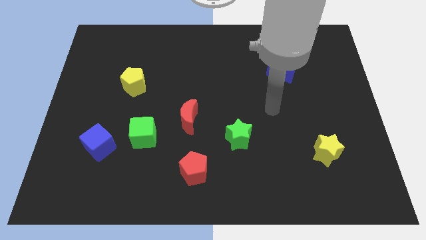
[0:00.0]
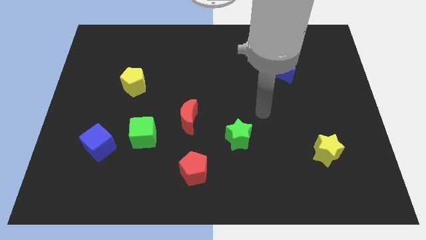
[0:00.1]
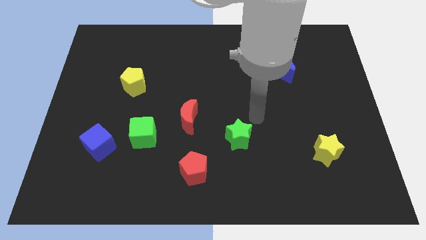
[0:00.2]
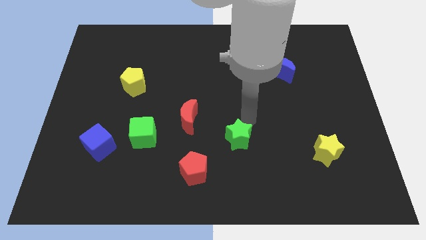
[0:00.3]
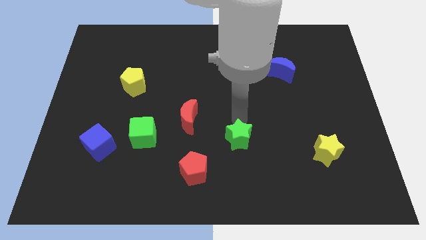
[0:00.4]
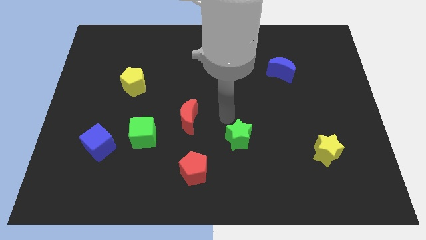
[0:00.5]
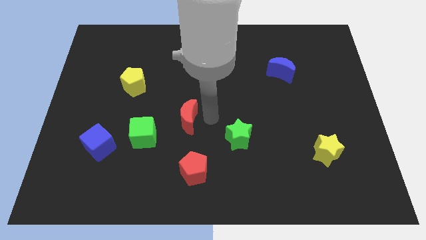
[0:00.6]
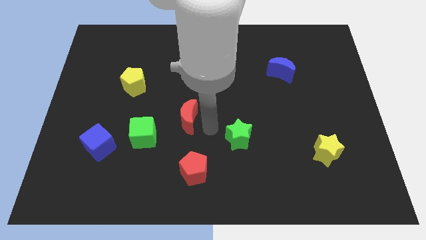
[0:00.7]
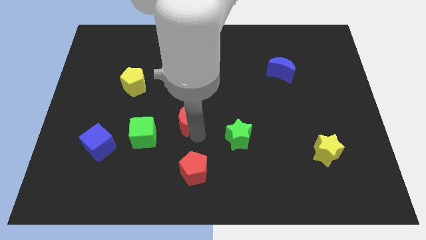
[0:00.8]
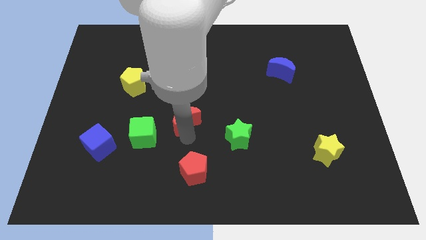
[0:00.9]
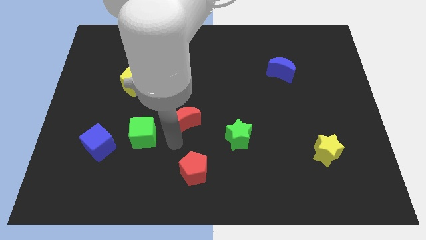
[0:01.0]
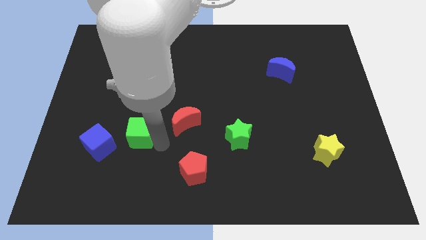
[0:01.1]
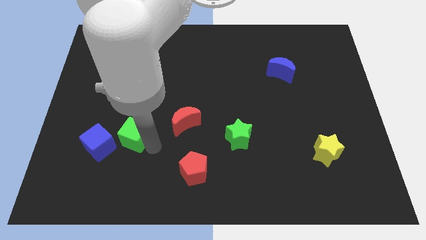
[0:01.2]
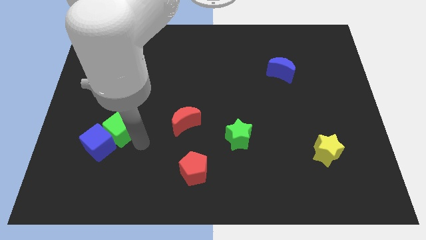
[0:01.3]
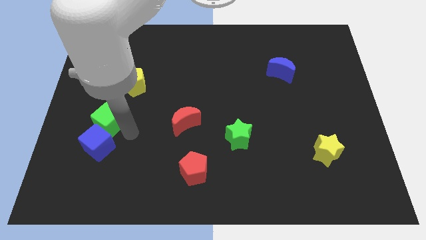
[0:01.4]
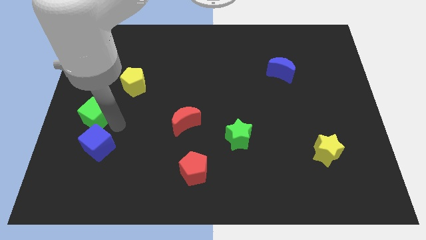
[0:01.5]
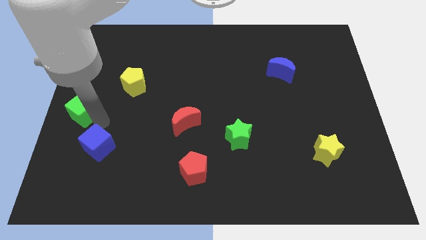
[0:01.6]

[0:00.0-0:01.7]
separate the blue cube from the green cube

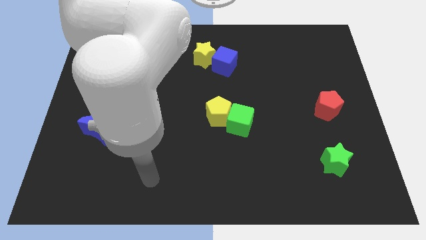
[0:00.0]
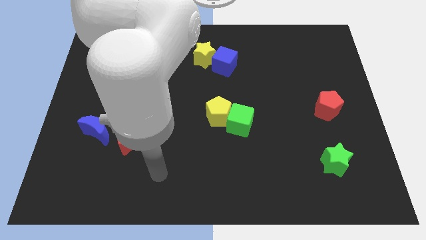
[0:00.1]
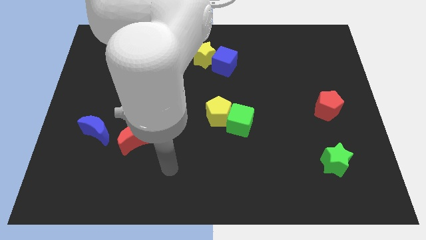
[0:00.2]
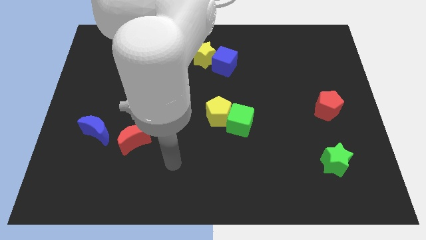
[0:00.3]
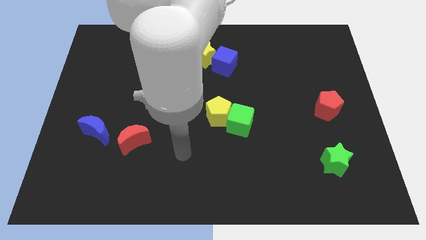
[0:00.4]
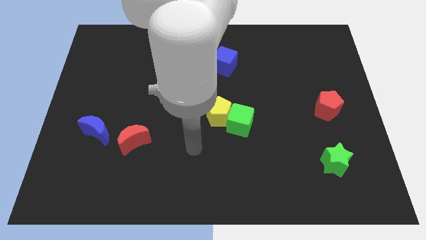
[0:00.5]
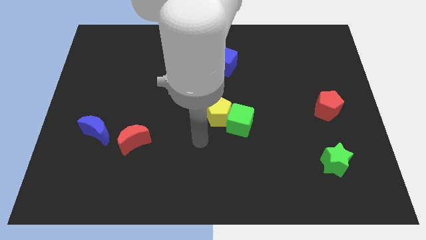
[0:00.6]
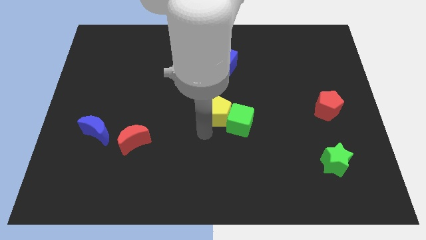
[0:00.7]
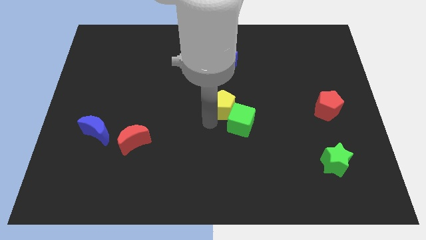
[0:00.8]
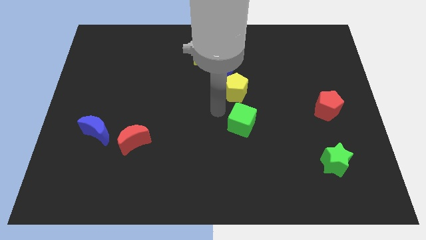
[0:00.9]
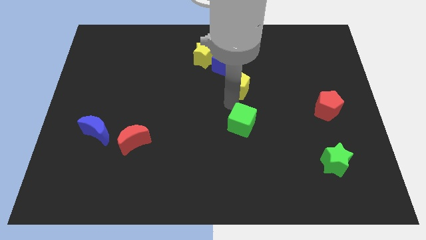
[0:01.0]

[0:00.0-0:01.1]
separate the green cube from the yellow pentagon

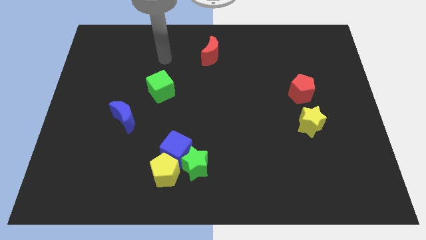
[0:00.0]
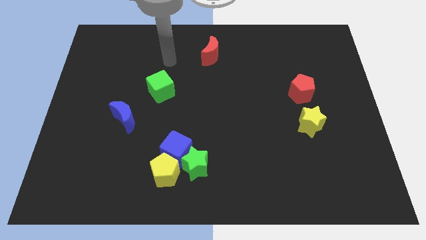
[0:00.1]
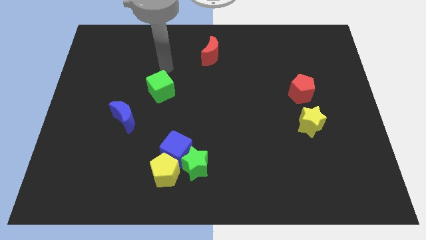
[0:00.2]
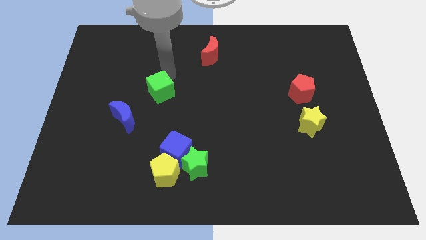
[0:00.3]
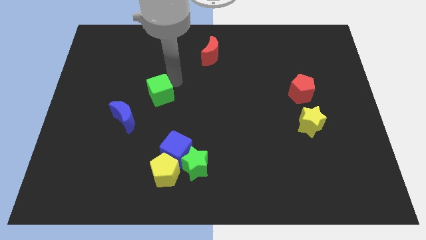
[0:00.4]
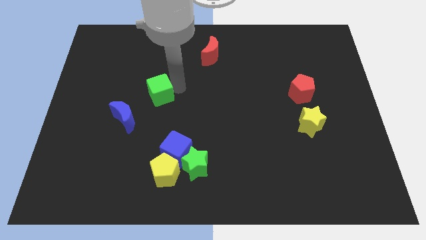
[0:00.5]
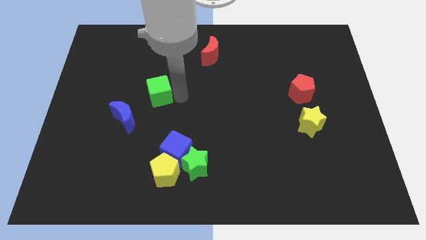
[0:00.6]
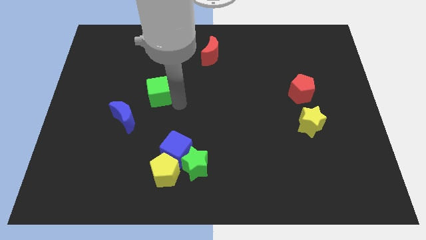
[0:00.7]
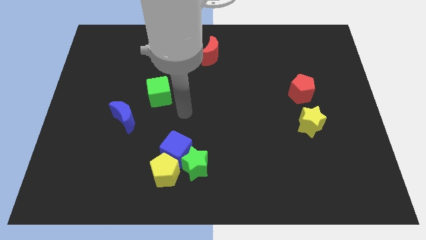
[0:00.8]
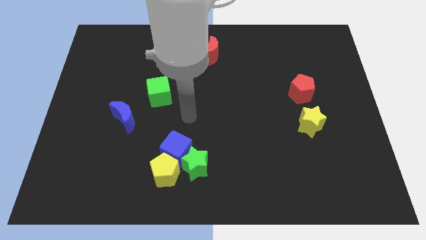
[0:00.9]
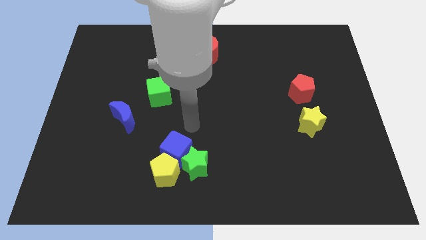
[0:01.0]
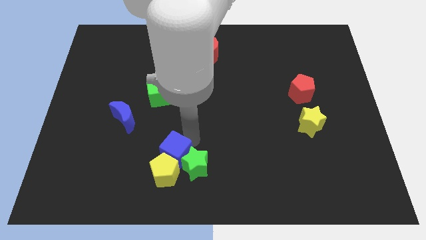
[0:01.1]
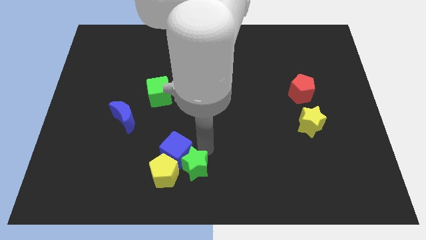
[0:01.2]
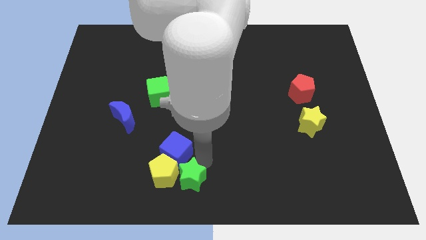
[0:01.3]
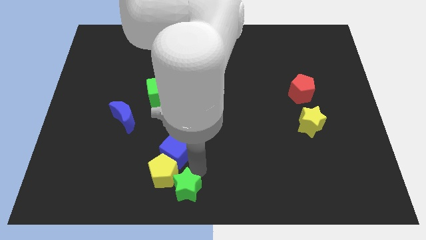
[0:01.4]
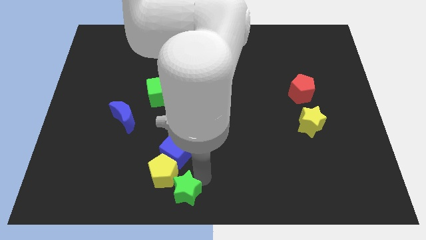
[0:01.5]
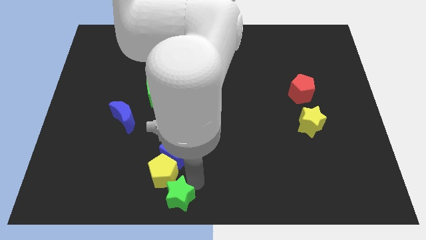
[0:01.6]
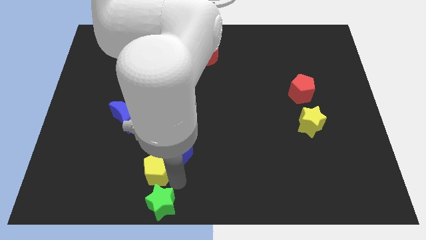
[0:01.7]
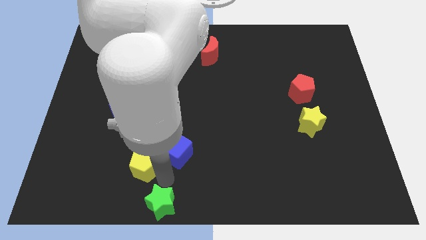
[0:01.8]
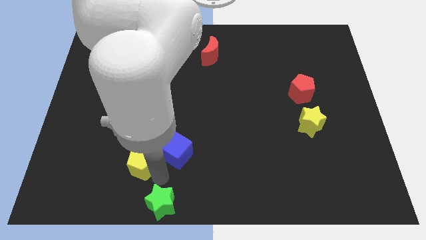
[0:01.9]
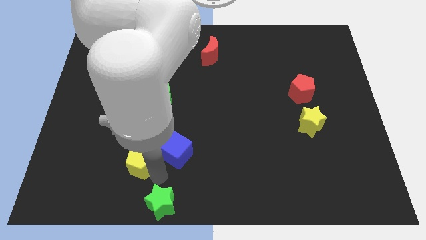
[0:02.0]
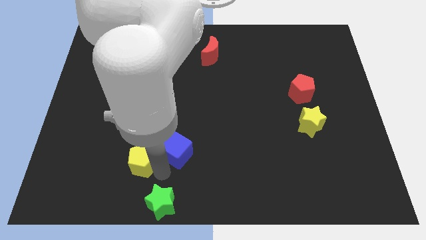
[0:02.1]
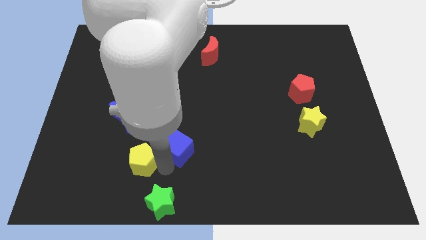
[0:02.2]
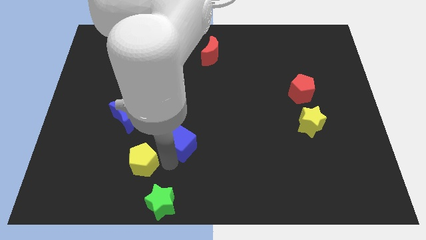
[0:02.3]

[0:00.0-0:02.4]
separate the blue cube from the green star and yellow pentagon

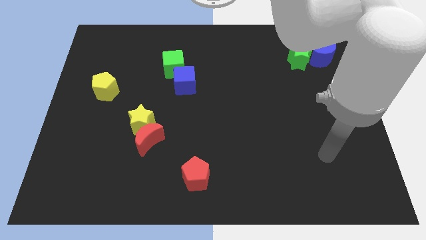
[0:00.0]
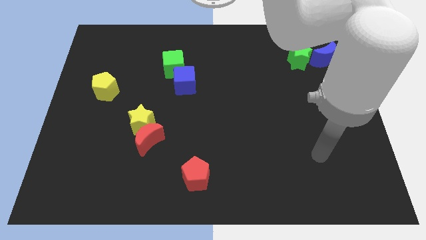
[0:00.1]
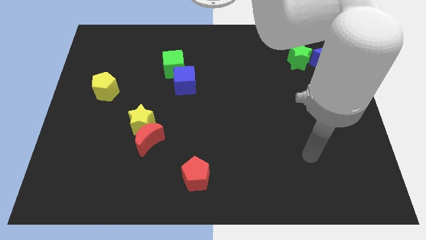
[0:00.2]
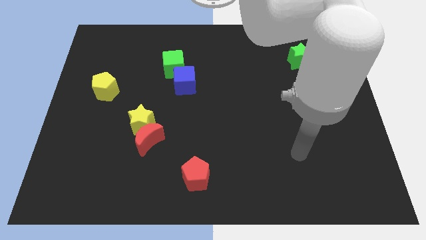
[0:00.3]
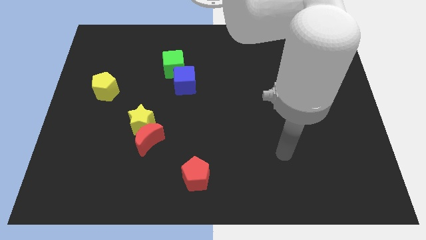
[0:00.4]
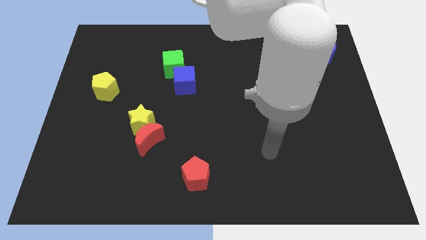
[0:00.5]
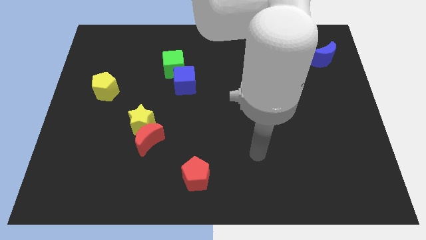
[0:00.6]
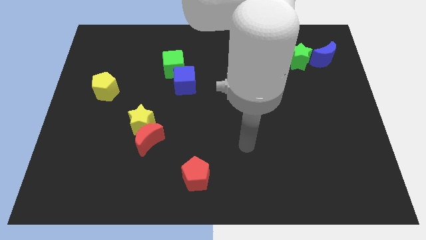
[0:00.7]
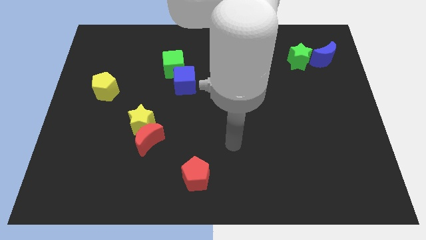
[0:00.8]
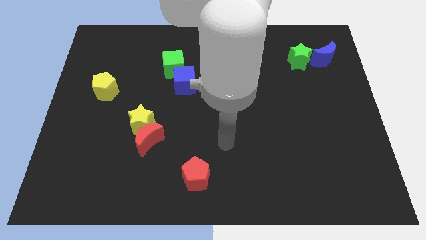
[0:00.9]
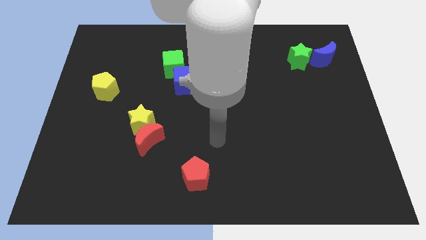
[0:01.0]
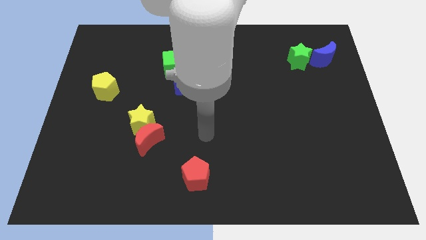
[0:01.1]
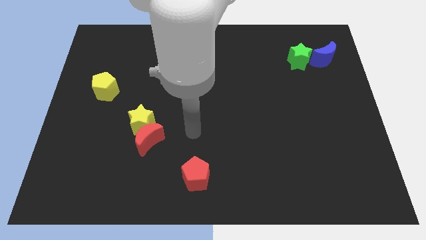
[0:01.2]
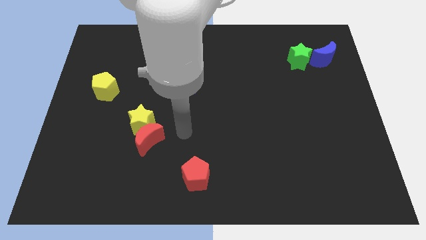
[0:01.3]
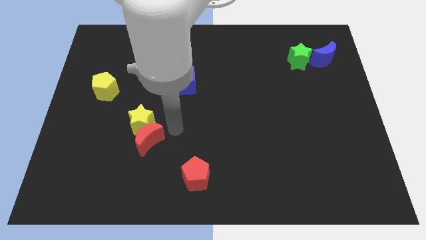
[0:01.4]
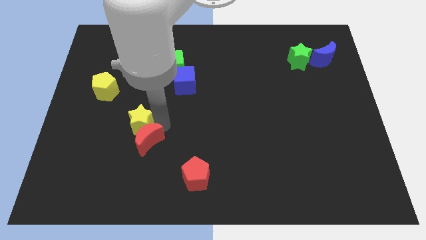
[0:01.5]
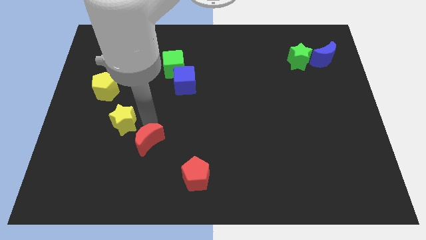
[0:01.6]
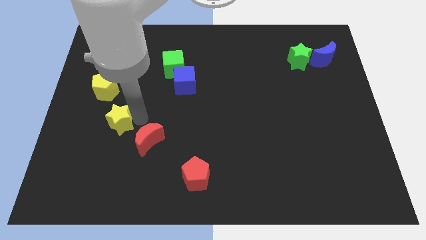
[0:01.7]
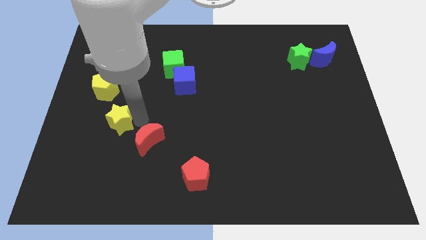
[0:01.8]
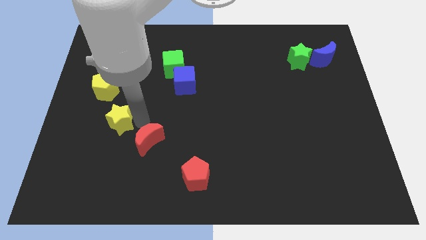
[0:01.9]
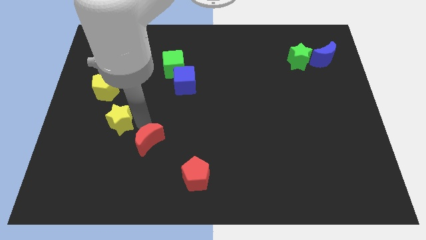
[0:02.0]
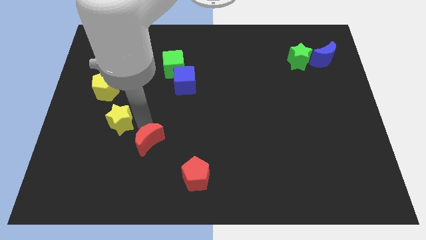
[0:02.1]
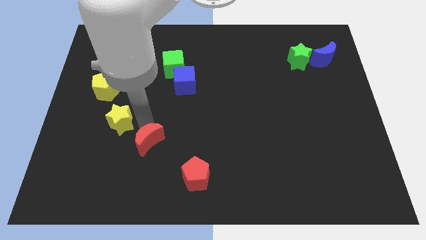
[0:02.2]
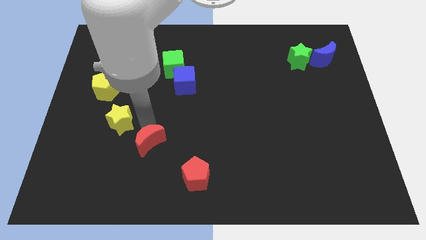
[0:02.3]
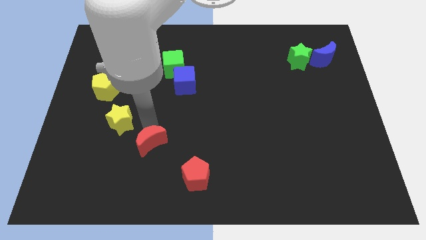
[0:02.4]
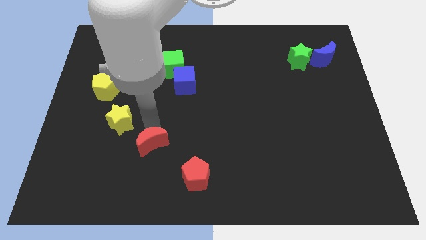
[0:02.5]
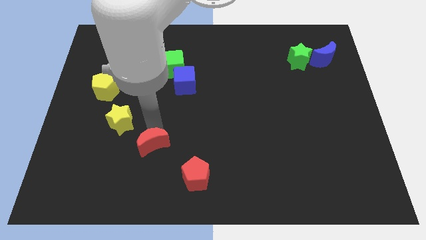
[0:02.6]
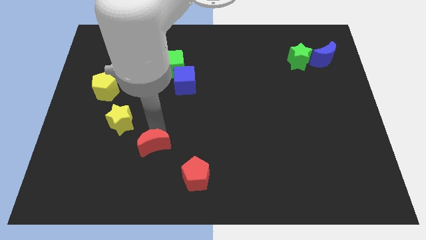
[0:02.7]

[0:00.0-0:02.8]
move the red moon away from the yellow star

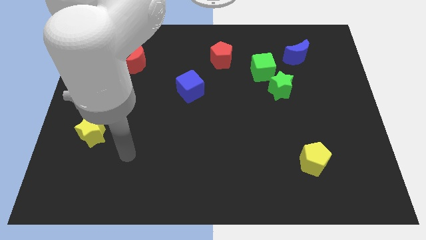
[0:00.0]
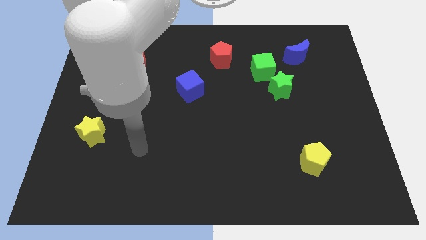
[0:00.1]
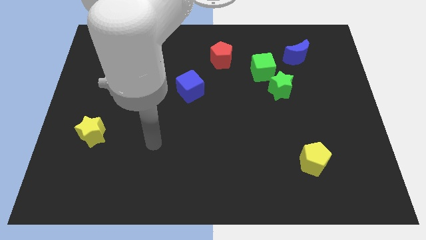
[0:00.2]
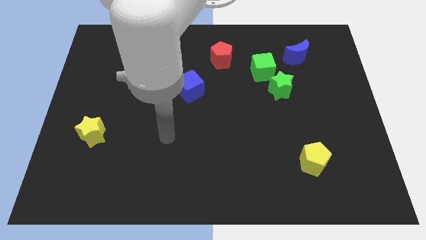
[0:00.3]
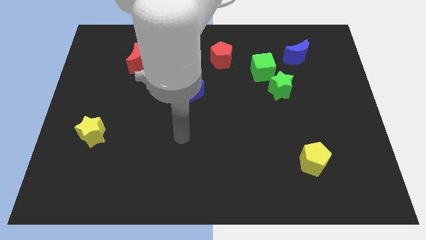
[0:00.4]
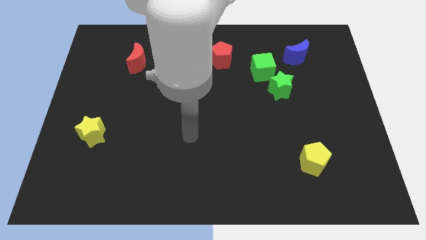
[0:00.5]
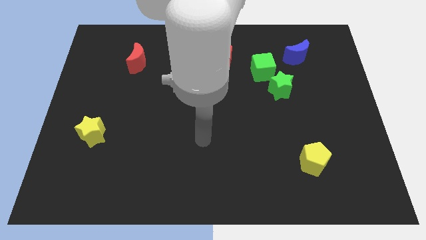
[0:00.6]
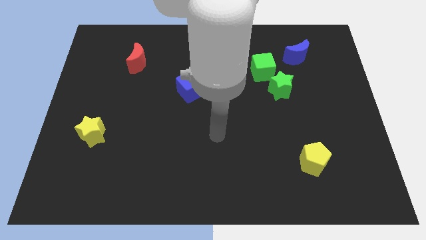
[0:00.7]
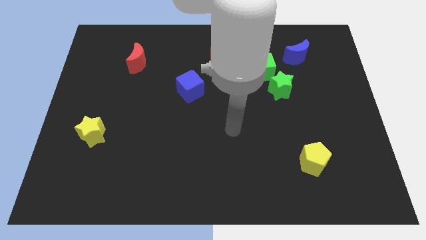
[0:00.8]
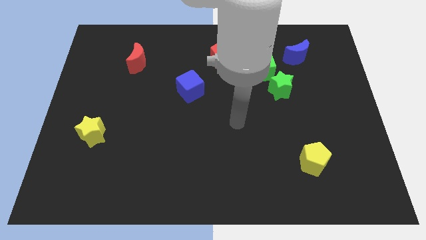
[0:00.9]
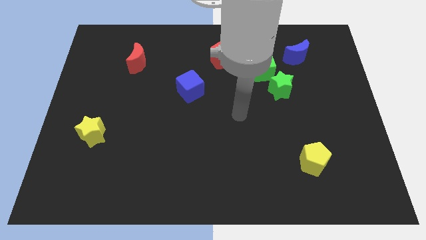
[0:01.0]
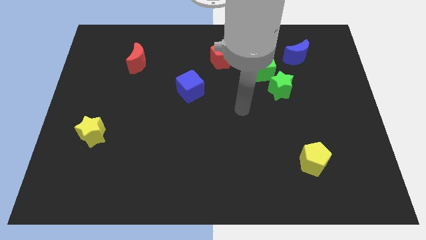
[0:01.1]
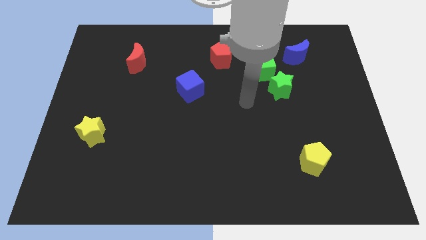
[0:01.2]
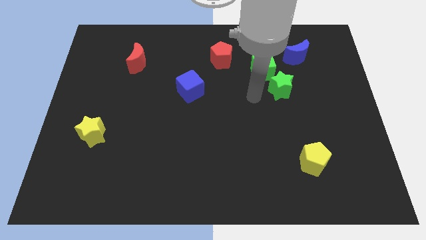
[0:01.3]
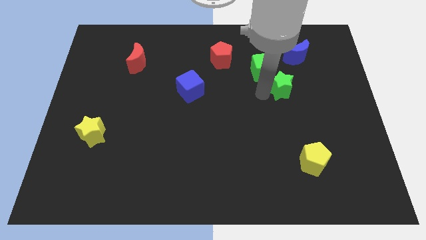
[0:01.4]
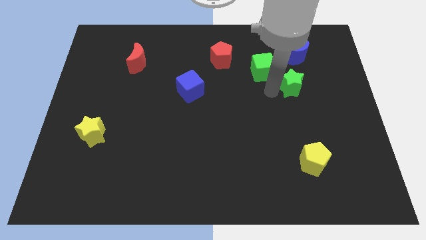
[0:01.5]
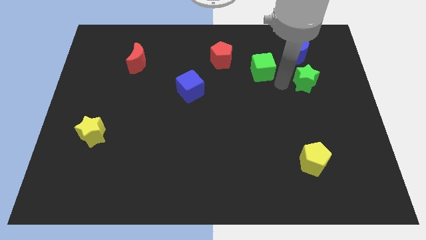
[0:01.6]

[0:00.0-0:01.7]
move the green cube away from the green star
